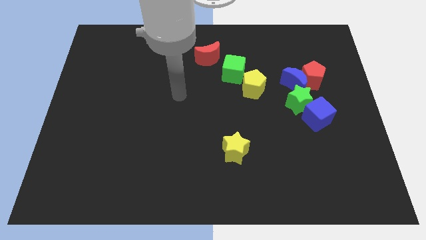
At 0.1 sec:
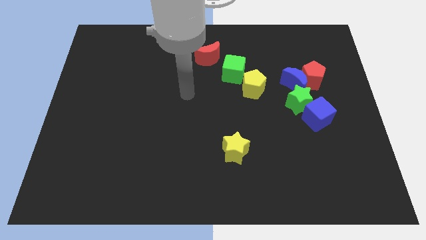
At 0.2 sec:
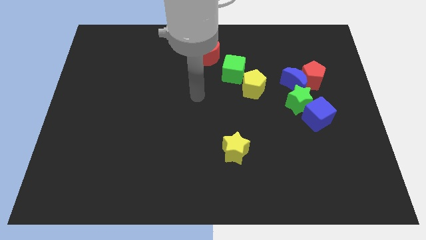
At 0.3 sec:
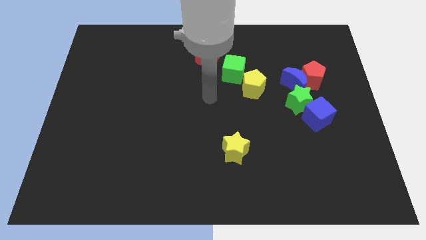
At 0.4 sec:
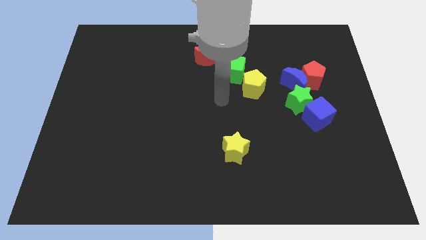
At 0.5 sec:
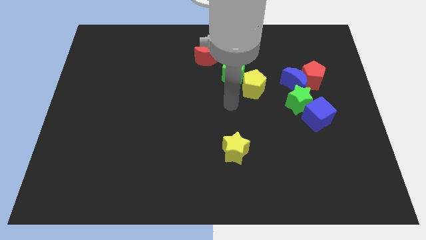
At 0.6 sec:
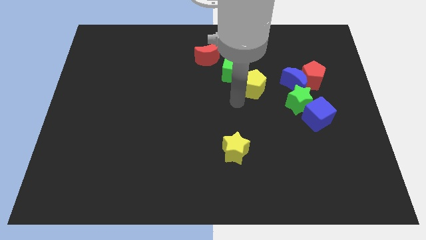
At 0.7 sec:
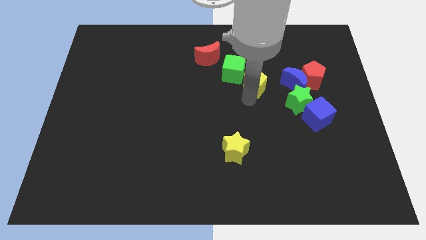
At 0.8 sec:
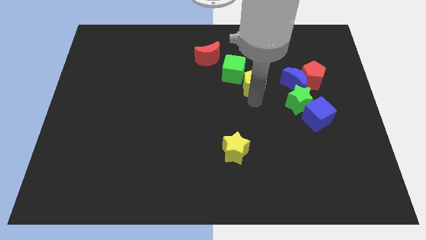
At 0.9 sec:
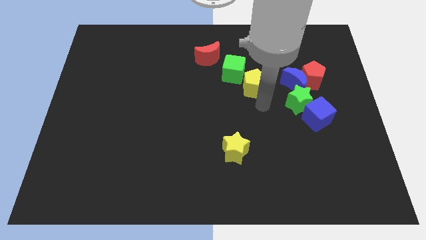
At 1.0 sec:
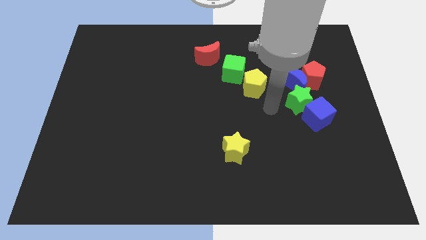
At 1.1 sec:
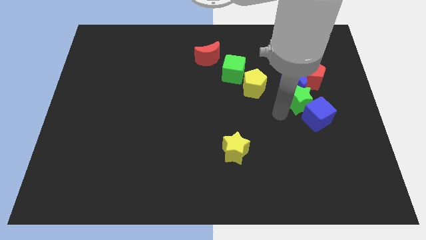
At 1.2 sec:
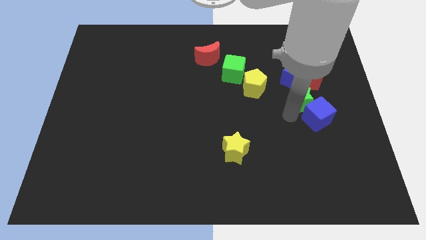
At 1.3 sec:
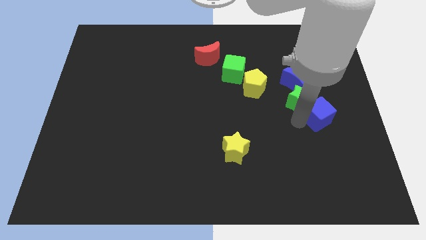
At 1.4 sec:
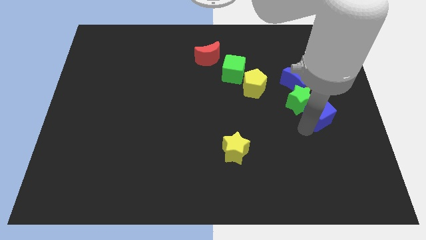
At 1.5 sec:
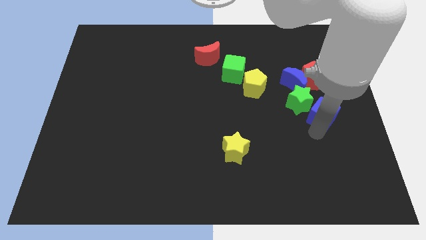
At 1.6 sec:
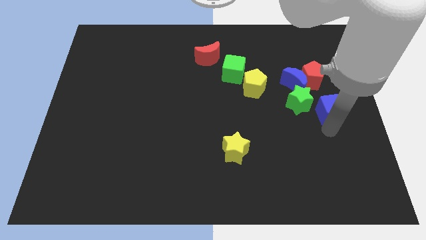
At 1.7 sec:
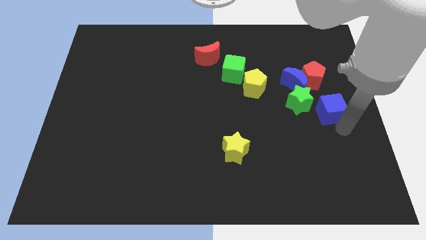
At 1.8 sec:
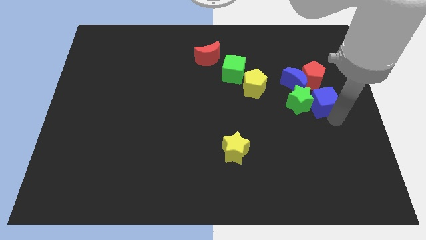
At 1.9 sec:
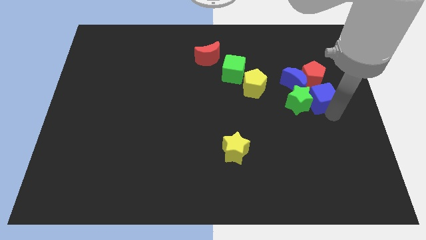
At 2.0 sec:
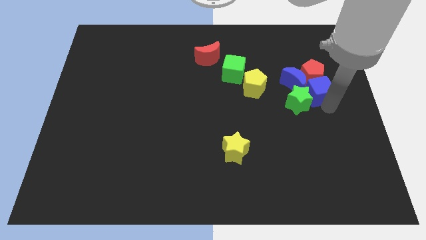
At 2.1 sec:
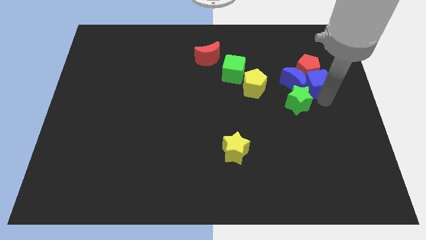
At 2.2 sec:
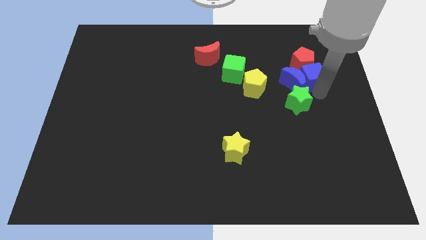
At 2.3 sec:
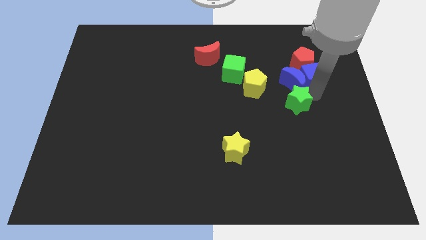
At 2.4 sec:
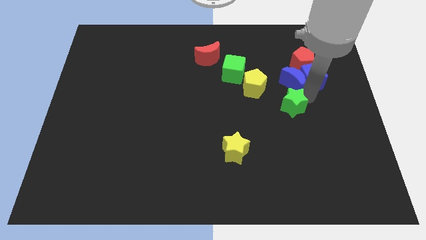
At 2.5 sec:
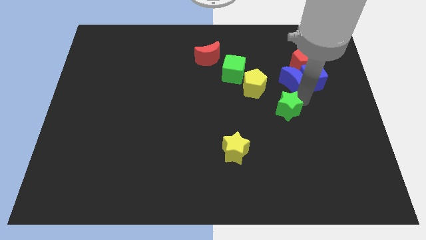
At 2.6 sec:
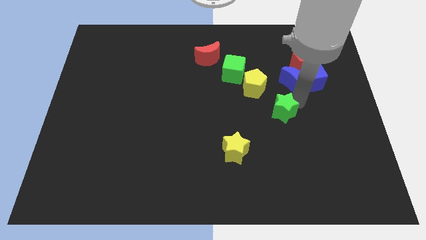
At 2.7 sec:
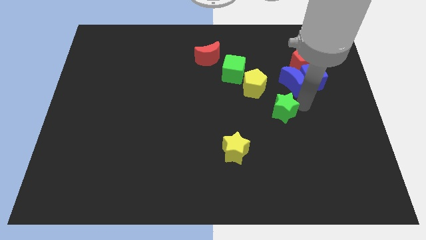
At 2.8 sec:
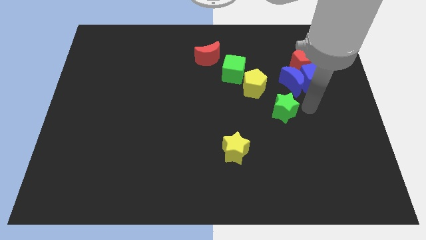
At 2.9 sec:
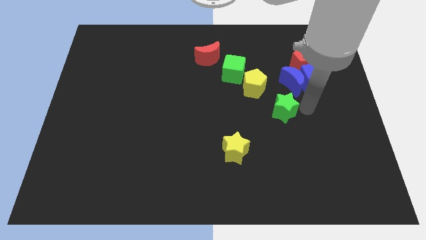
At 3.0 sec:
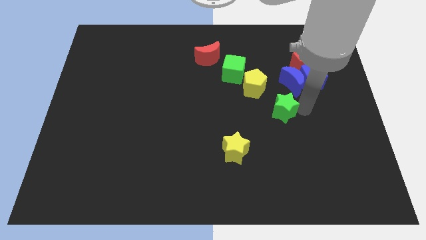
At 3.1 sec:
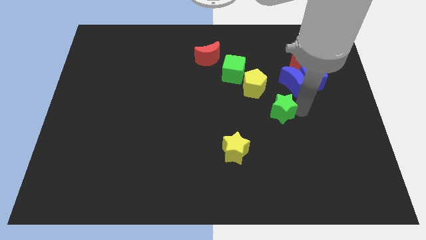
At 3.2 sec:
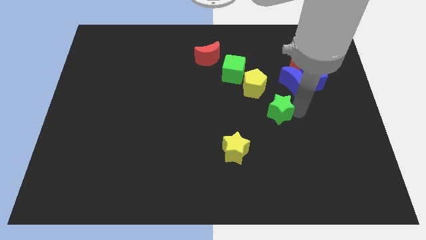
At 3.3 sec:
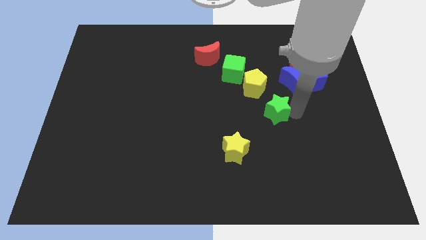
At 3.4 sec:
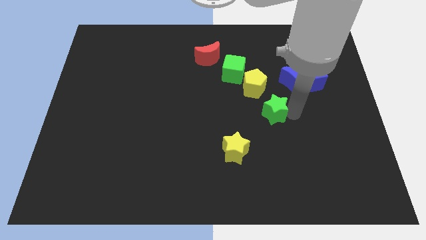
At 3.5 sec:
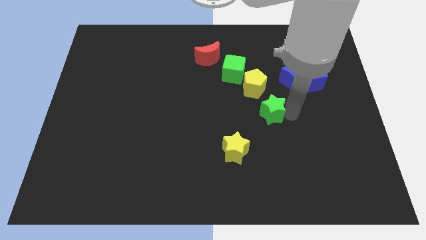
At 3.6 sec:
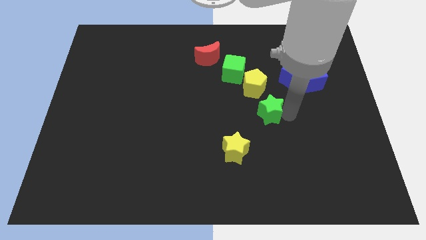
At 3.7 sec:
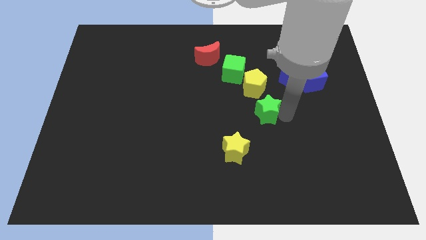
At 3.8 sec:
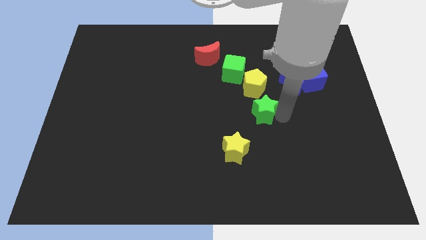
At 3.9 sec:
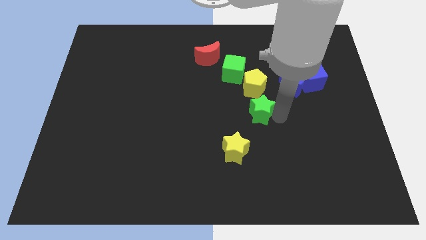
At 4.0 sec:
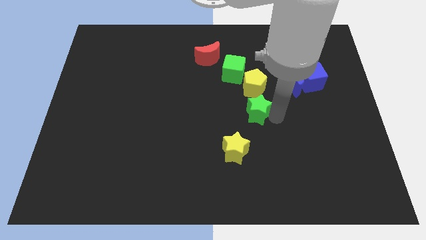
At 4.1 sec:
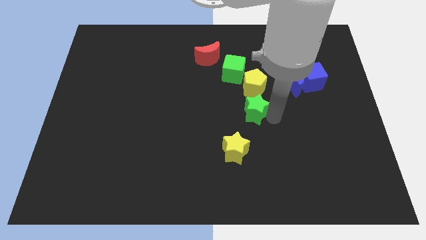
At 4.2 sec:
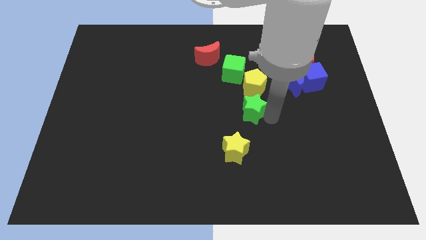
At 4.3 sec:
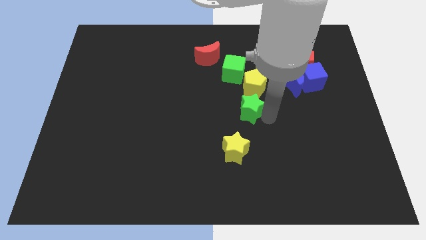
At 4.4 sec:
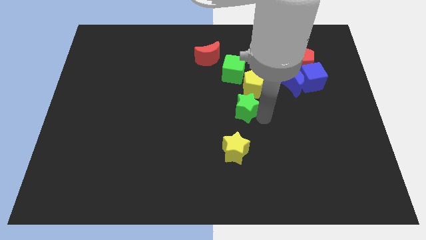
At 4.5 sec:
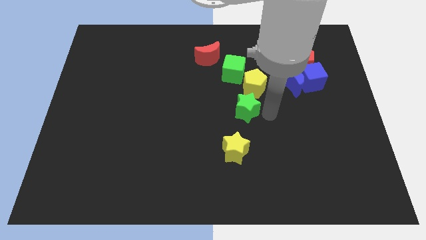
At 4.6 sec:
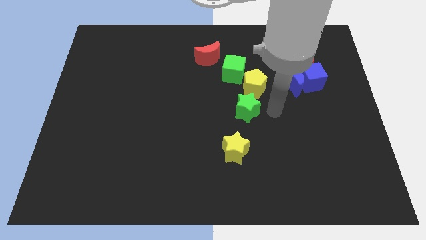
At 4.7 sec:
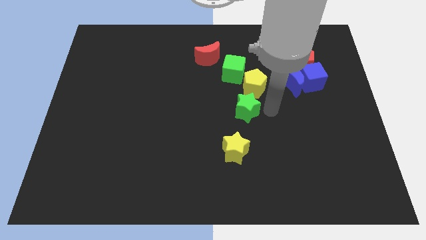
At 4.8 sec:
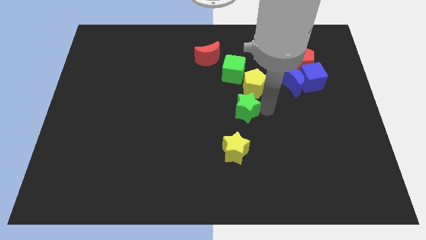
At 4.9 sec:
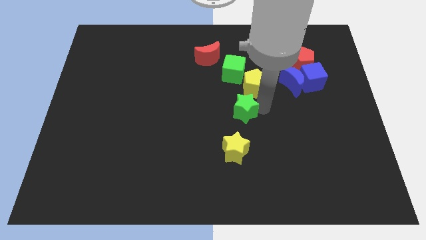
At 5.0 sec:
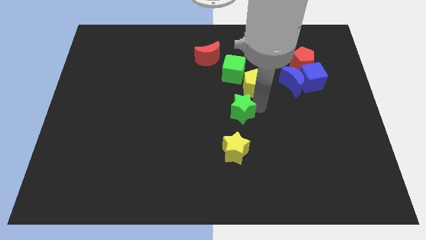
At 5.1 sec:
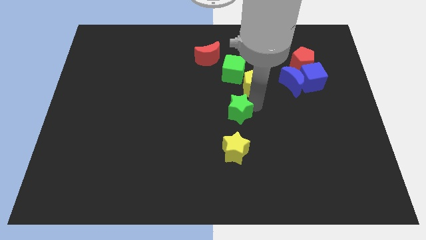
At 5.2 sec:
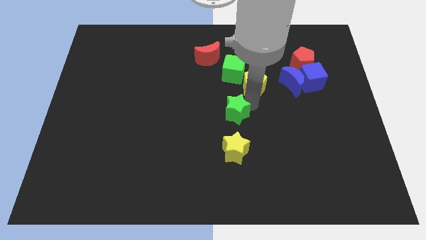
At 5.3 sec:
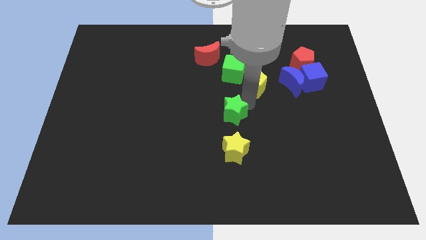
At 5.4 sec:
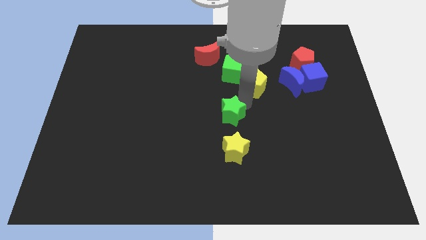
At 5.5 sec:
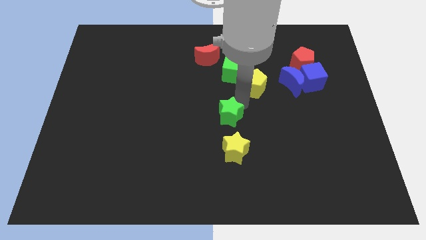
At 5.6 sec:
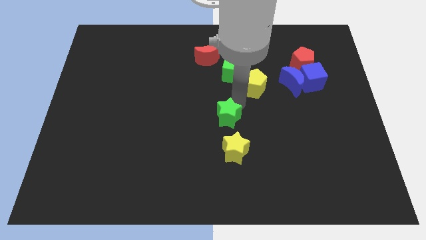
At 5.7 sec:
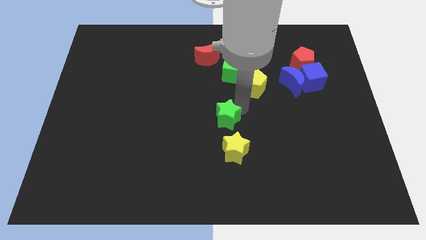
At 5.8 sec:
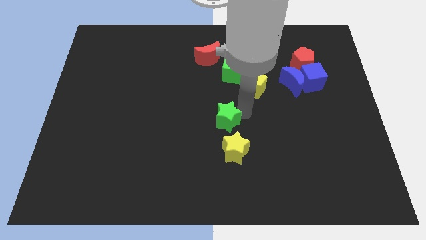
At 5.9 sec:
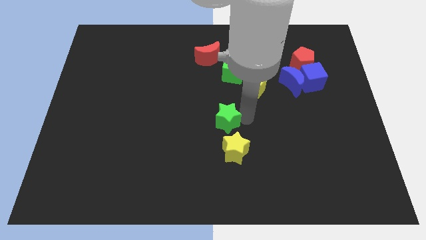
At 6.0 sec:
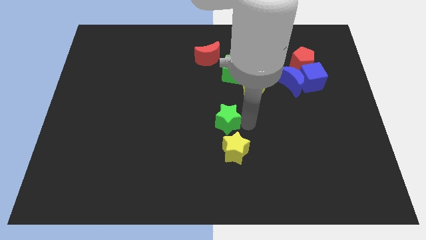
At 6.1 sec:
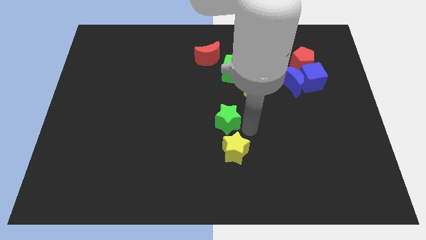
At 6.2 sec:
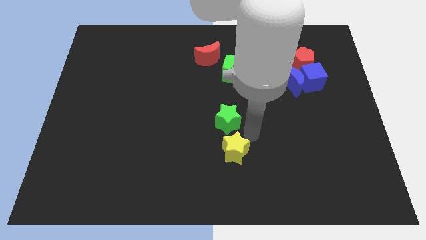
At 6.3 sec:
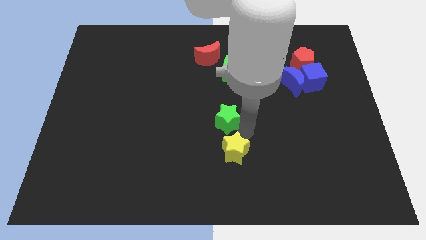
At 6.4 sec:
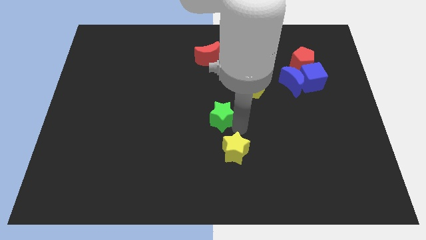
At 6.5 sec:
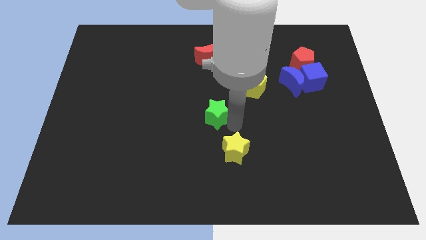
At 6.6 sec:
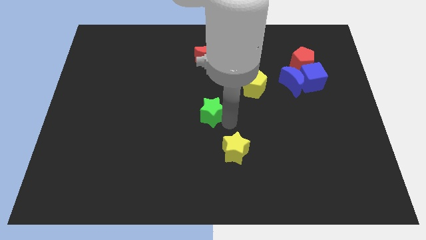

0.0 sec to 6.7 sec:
push the green star to the left

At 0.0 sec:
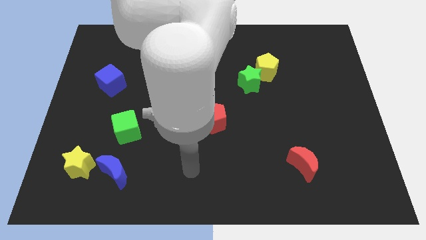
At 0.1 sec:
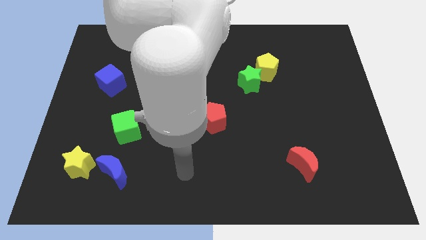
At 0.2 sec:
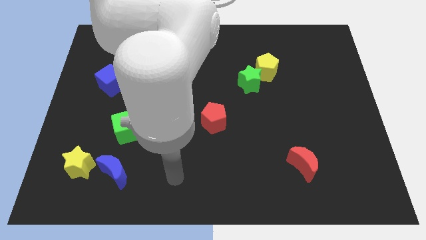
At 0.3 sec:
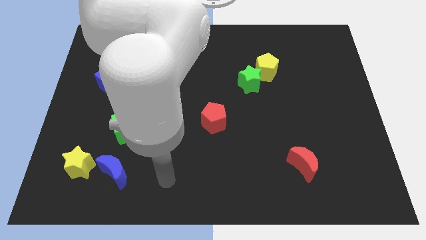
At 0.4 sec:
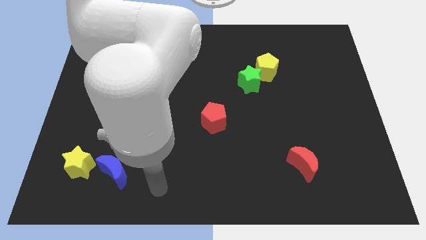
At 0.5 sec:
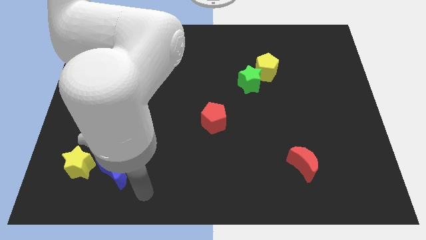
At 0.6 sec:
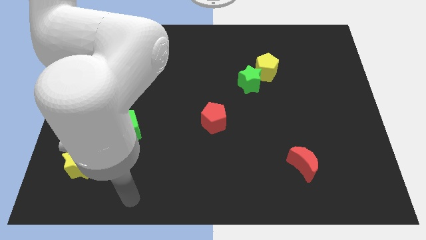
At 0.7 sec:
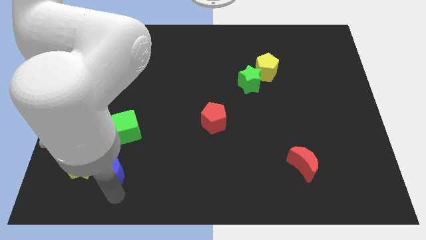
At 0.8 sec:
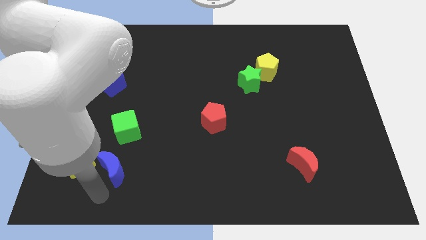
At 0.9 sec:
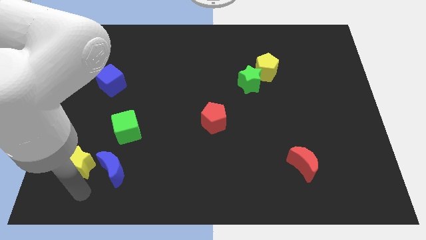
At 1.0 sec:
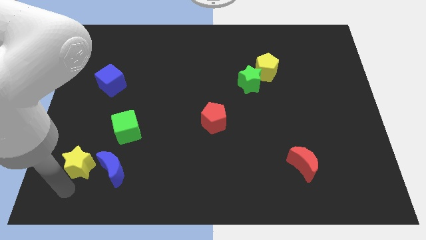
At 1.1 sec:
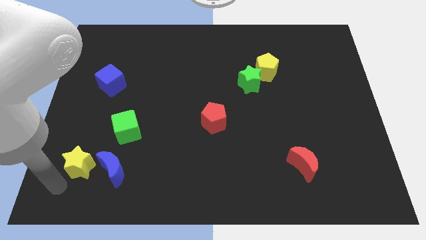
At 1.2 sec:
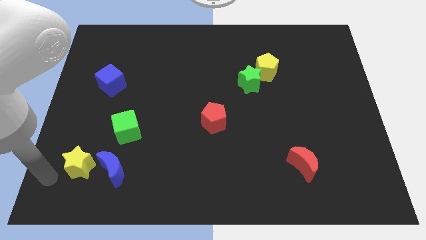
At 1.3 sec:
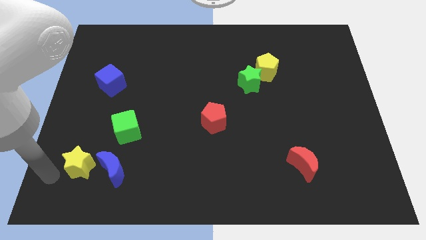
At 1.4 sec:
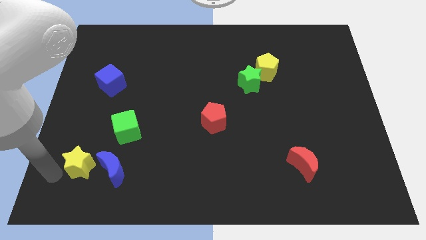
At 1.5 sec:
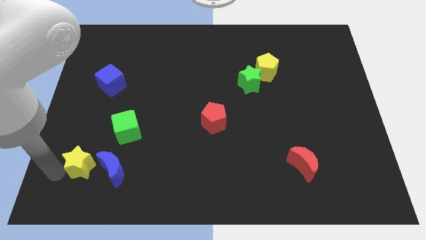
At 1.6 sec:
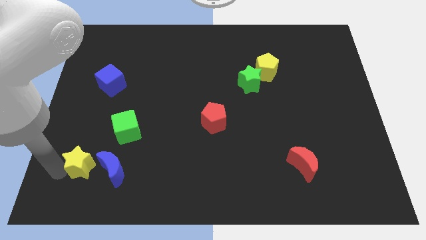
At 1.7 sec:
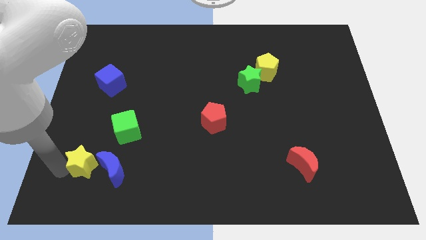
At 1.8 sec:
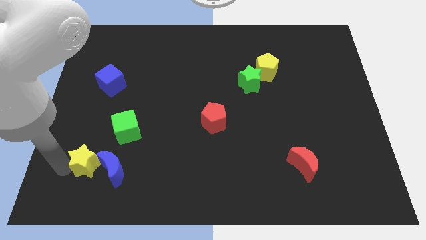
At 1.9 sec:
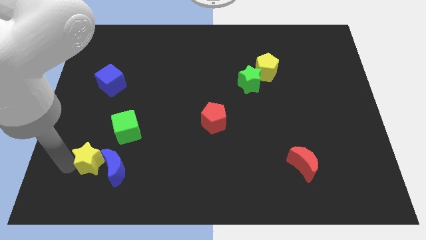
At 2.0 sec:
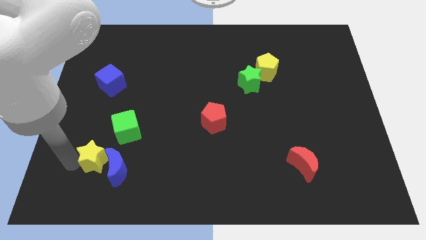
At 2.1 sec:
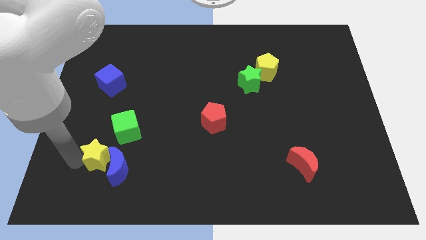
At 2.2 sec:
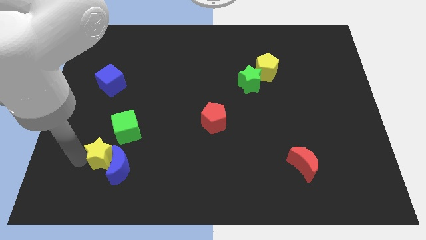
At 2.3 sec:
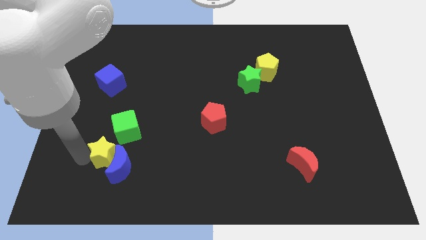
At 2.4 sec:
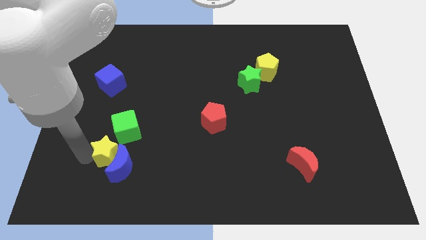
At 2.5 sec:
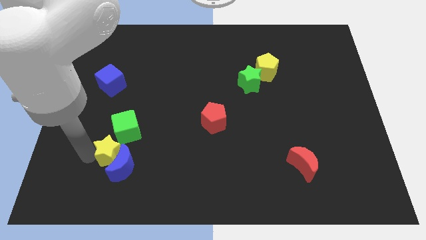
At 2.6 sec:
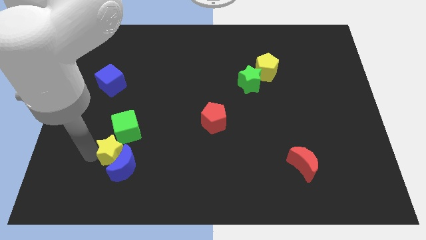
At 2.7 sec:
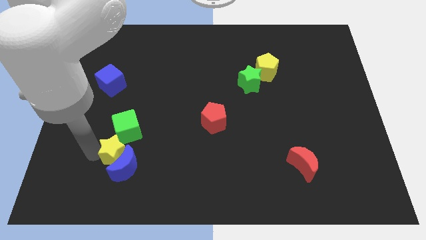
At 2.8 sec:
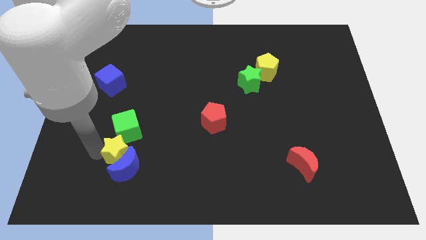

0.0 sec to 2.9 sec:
slightly slide the yellow star to the right
